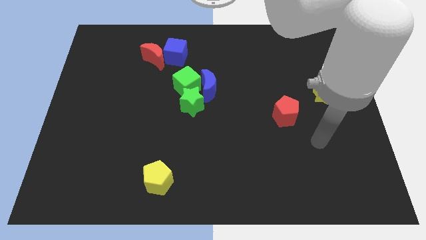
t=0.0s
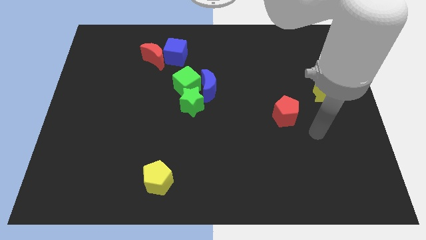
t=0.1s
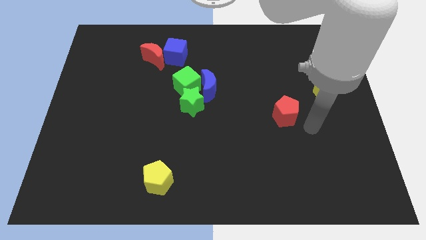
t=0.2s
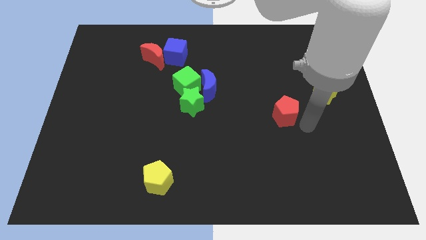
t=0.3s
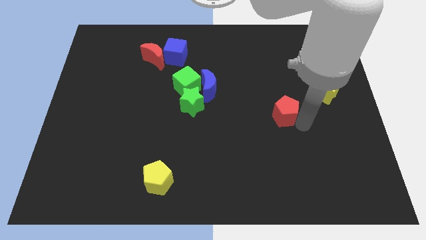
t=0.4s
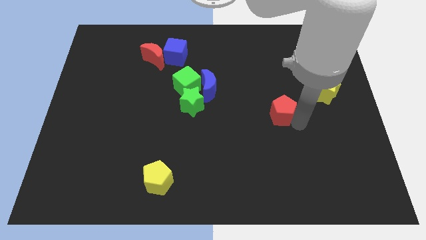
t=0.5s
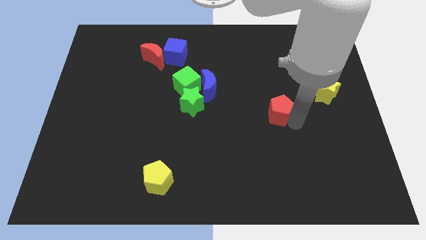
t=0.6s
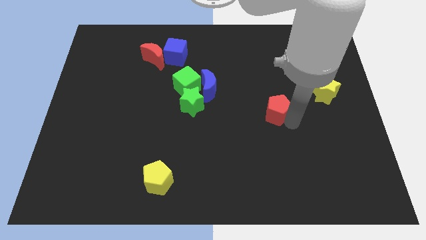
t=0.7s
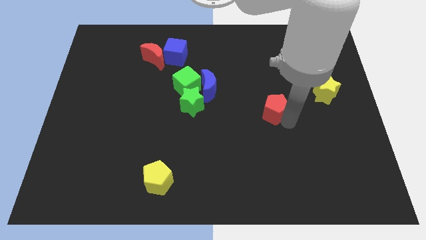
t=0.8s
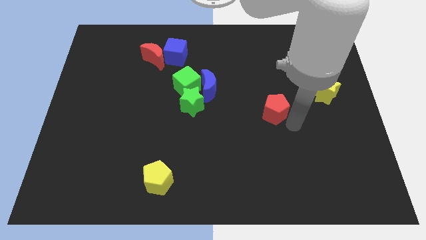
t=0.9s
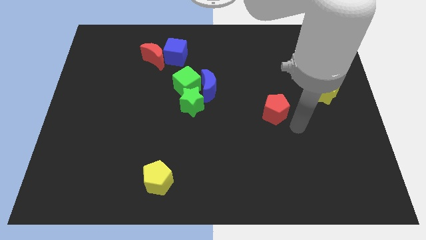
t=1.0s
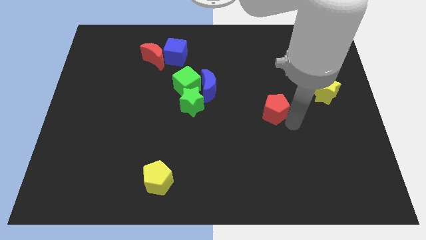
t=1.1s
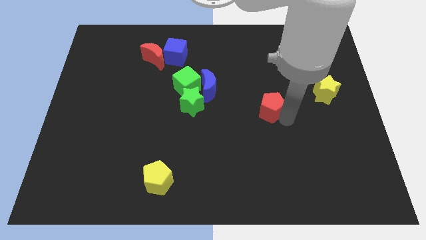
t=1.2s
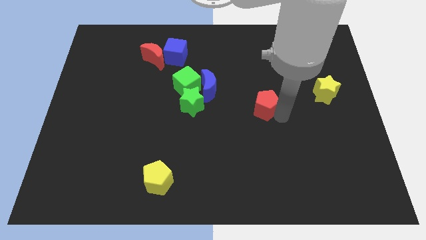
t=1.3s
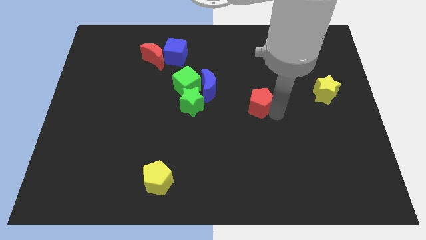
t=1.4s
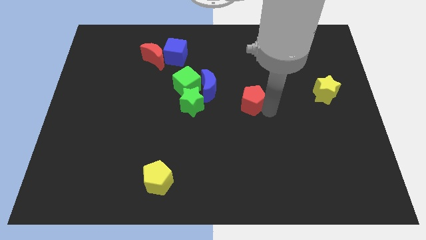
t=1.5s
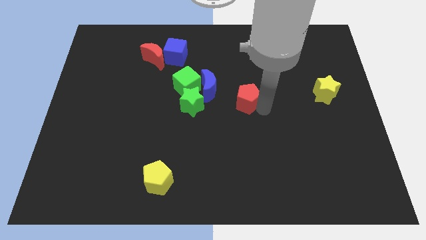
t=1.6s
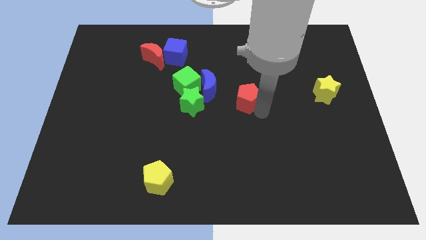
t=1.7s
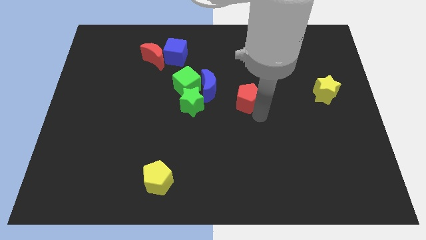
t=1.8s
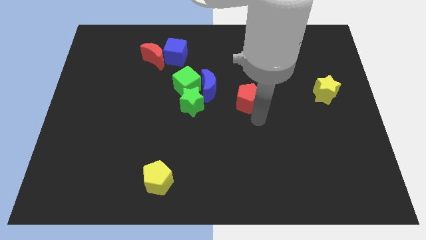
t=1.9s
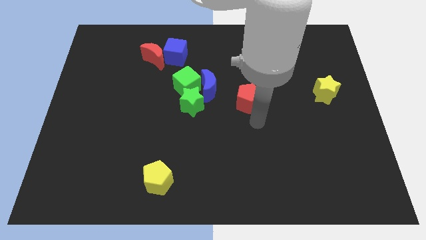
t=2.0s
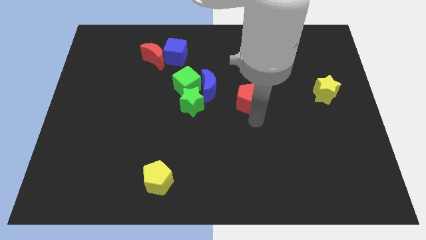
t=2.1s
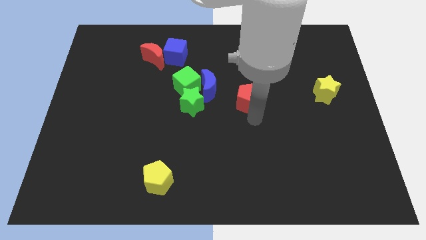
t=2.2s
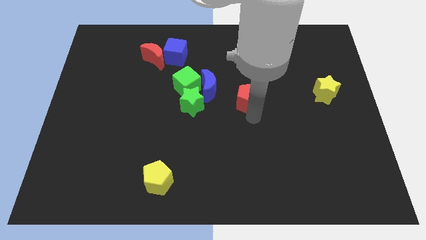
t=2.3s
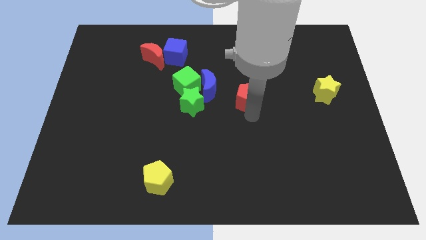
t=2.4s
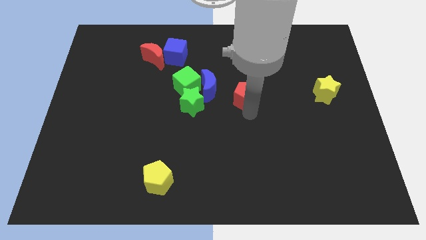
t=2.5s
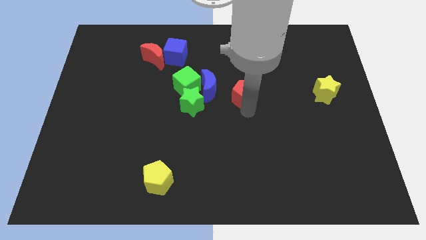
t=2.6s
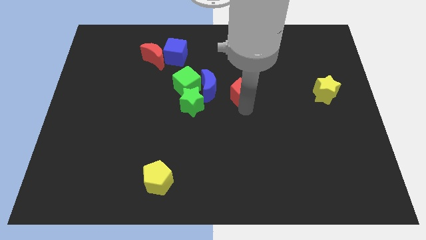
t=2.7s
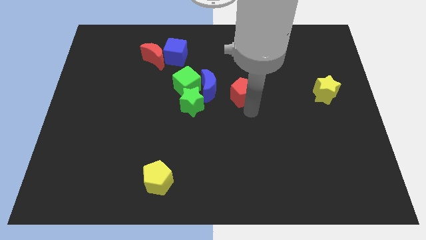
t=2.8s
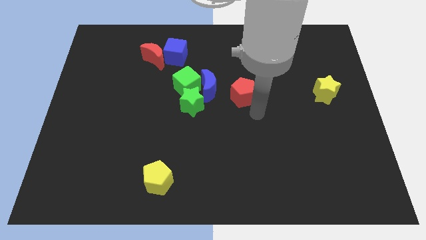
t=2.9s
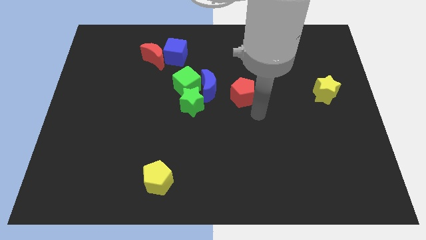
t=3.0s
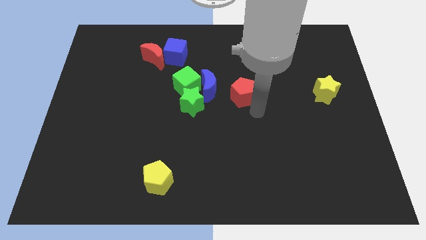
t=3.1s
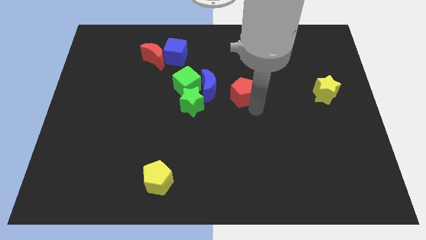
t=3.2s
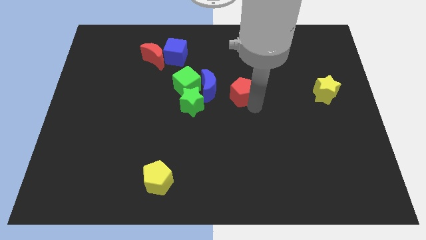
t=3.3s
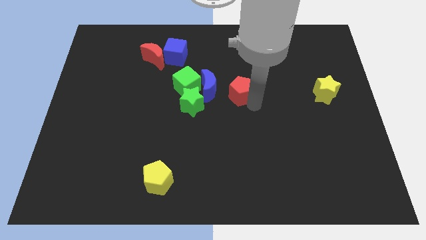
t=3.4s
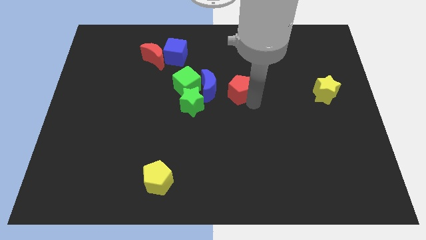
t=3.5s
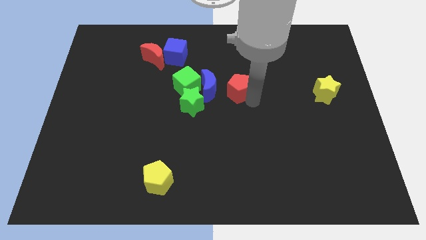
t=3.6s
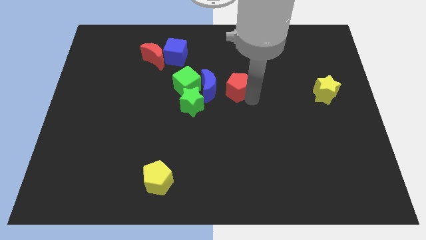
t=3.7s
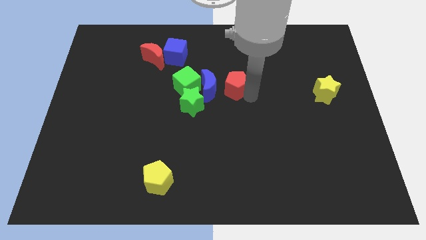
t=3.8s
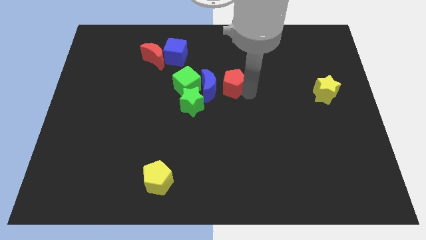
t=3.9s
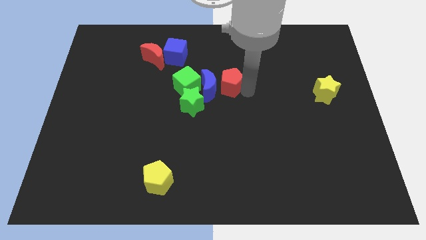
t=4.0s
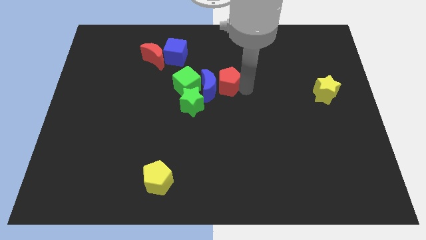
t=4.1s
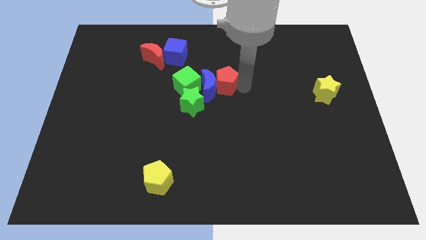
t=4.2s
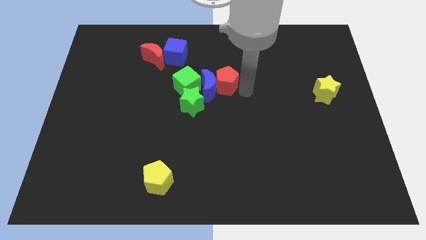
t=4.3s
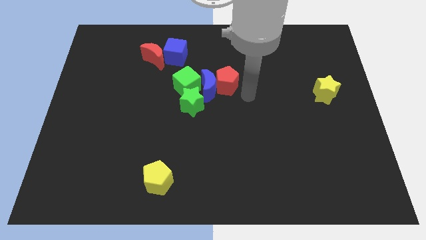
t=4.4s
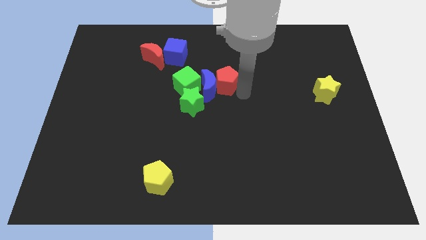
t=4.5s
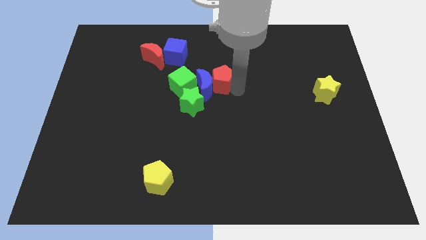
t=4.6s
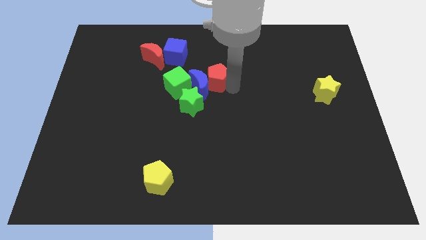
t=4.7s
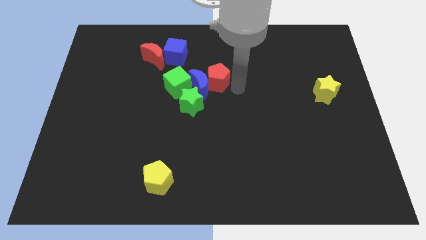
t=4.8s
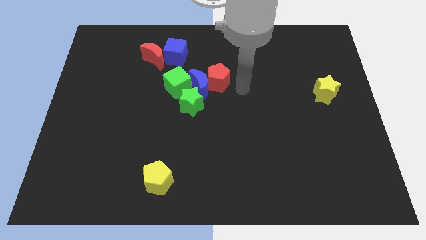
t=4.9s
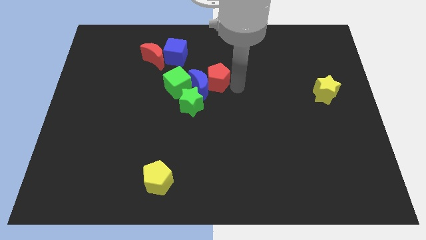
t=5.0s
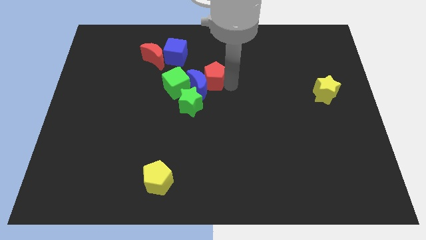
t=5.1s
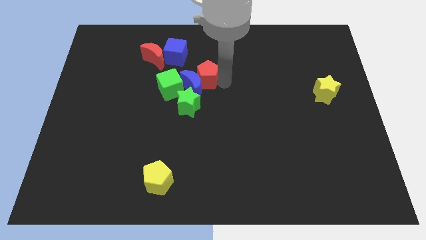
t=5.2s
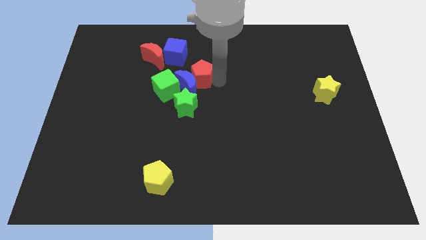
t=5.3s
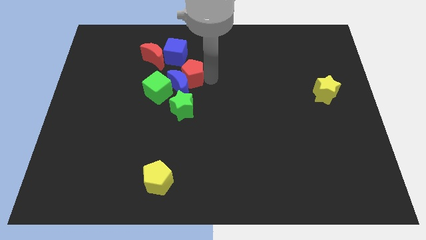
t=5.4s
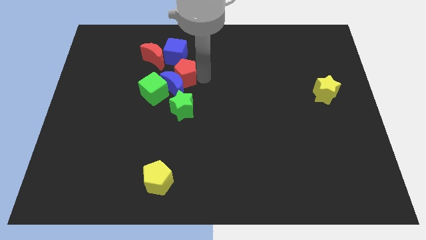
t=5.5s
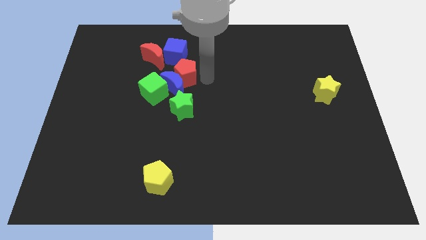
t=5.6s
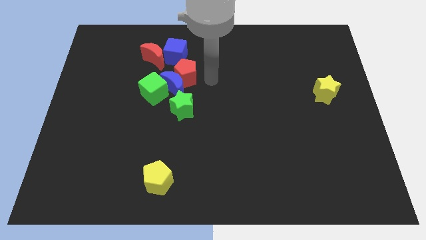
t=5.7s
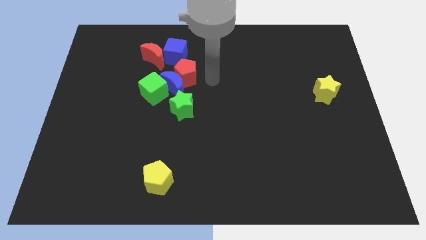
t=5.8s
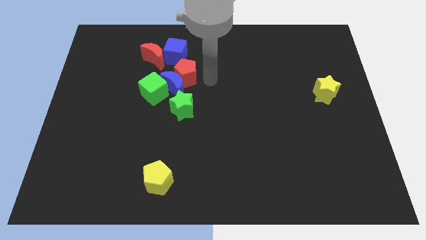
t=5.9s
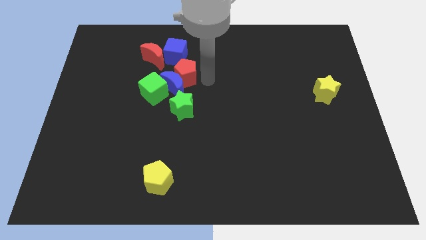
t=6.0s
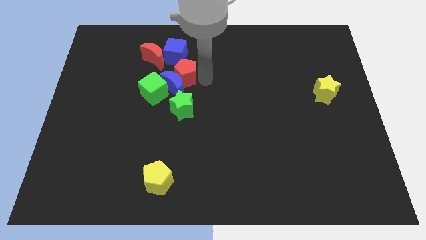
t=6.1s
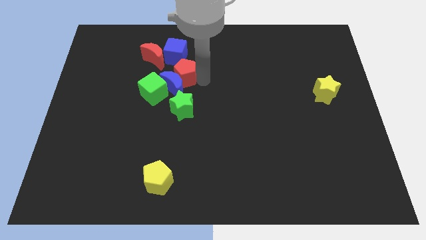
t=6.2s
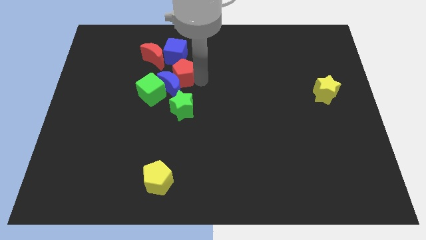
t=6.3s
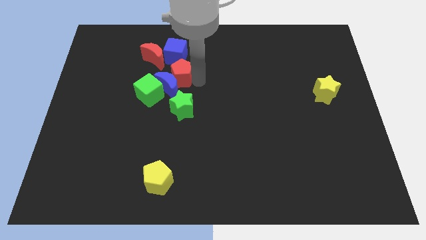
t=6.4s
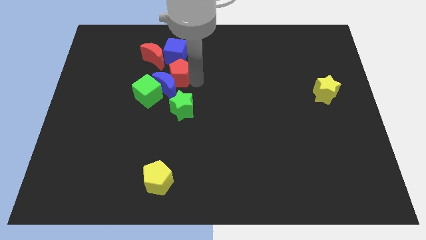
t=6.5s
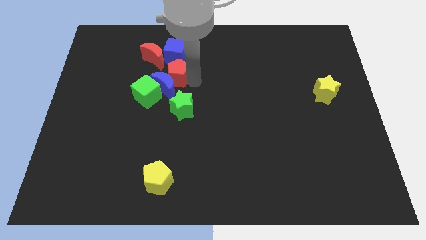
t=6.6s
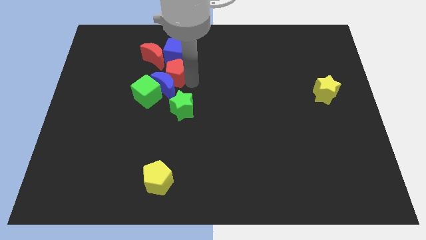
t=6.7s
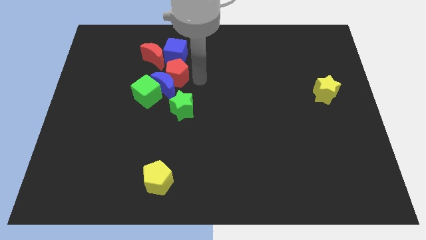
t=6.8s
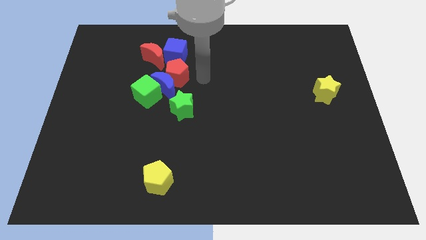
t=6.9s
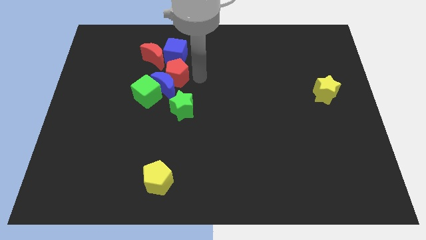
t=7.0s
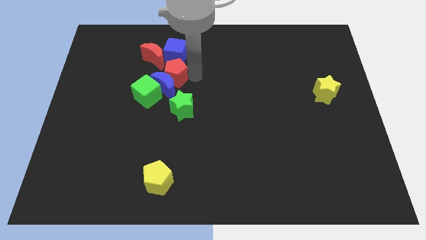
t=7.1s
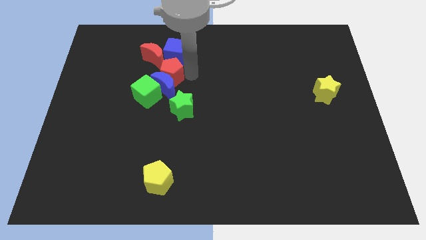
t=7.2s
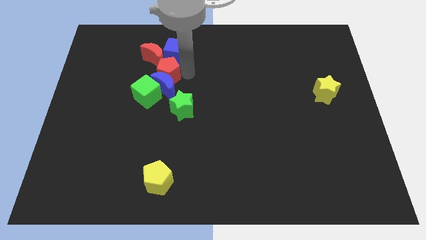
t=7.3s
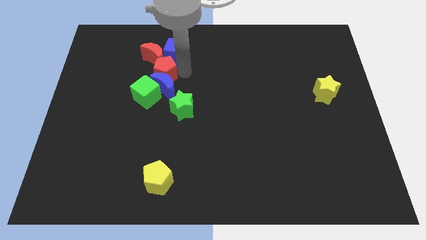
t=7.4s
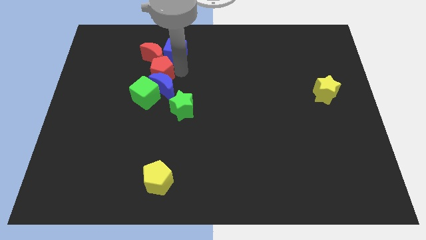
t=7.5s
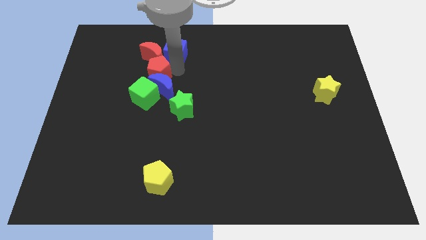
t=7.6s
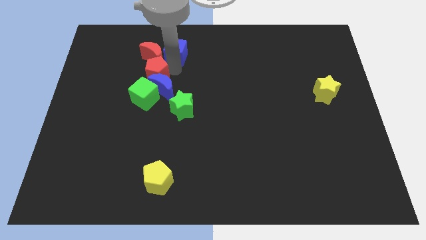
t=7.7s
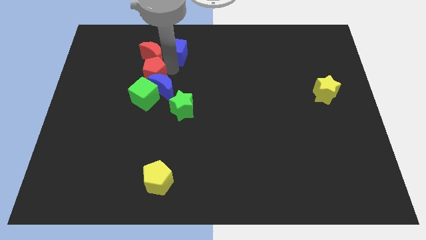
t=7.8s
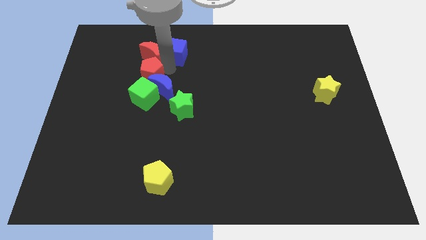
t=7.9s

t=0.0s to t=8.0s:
put the red pentagon diagonally down and to the left of the red moon
